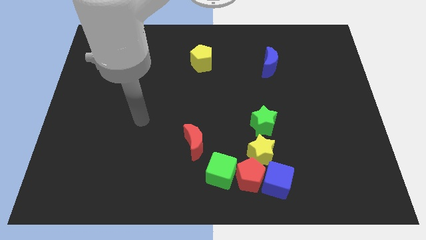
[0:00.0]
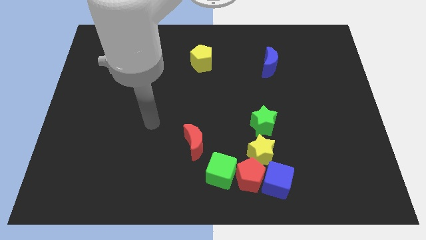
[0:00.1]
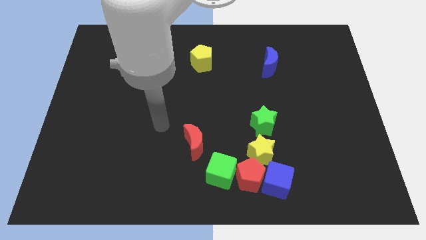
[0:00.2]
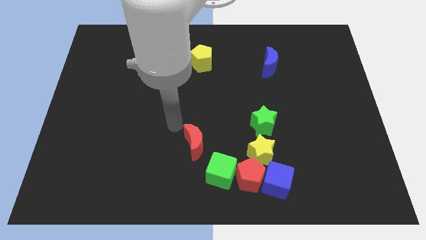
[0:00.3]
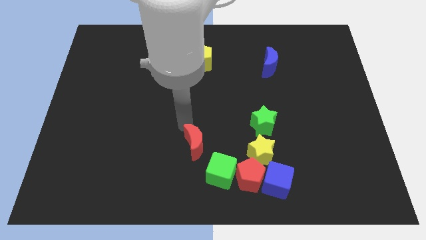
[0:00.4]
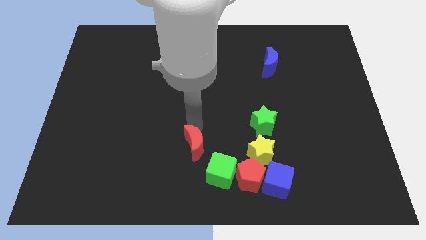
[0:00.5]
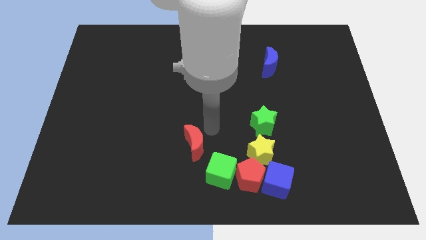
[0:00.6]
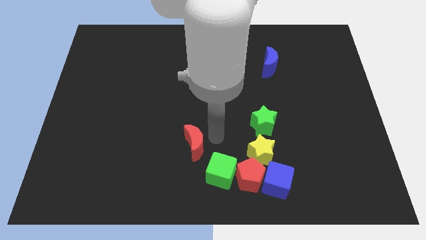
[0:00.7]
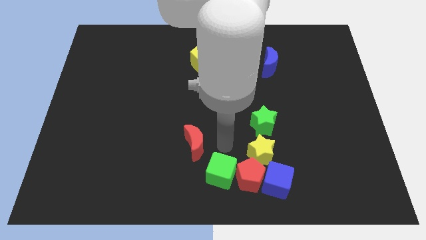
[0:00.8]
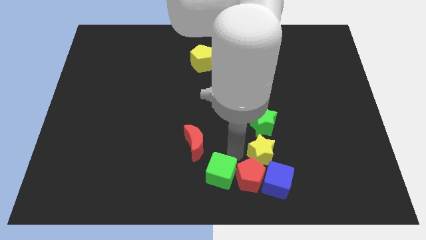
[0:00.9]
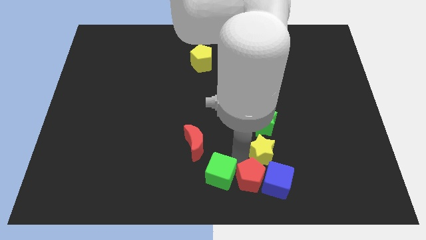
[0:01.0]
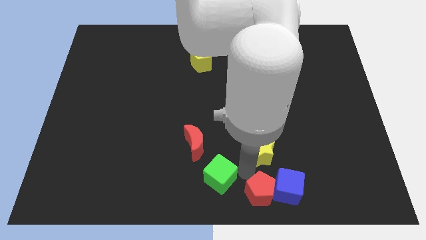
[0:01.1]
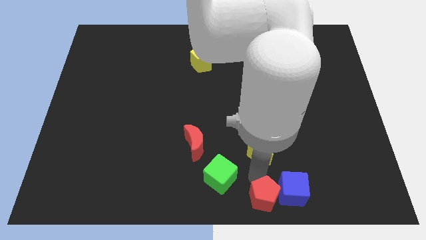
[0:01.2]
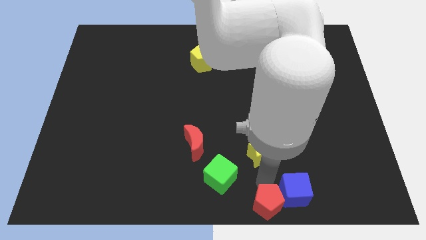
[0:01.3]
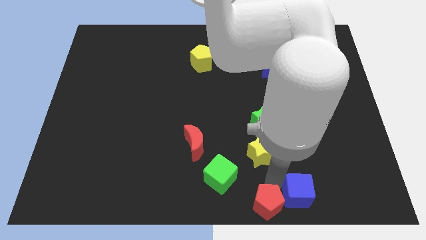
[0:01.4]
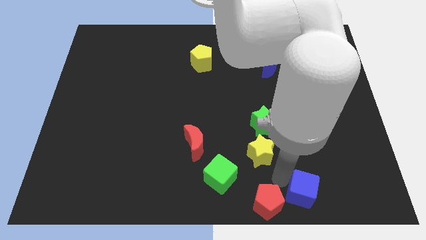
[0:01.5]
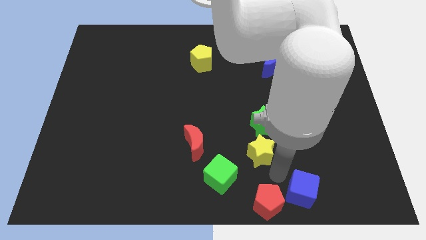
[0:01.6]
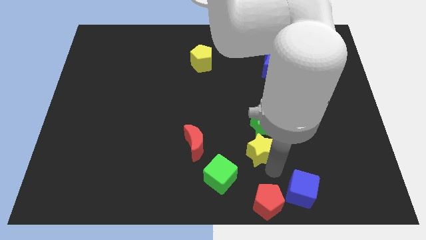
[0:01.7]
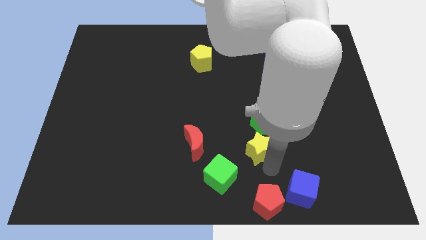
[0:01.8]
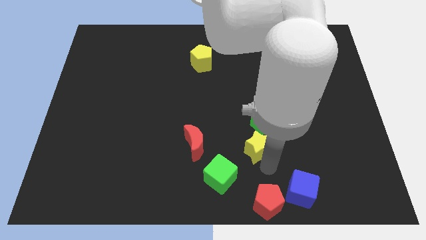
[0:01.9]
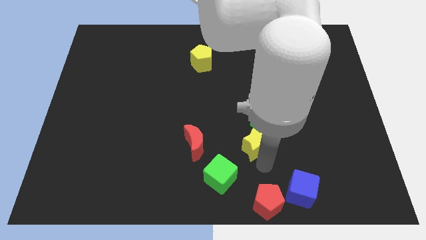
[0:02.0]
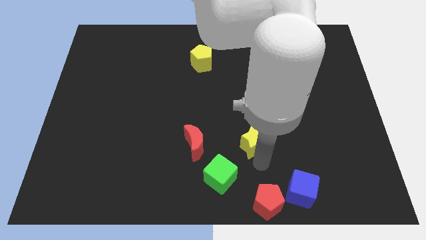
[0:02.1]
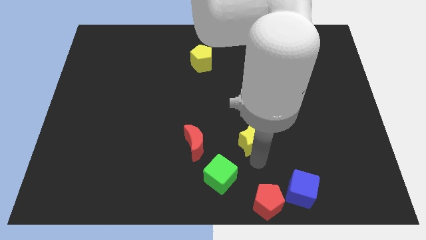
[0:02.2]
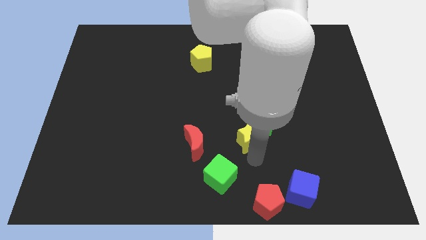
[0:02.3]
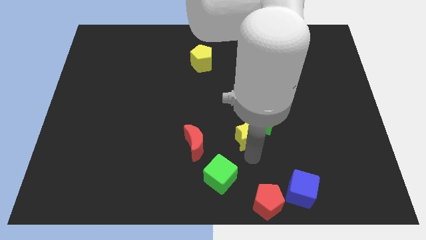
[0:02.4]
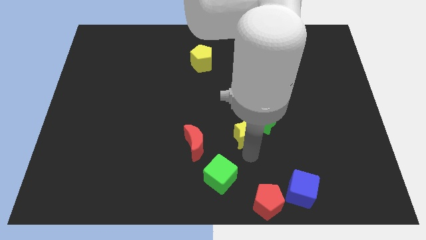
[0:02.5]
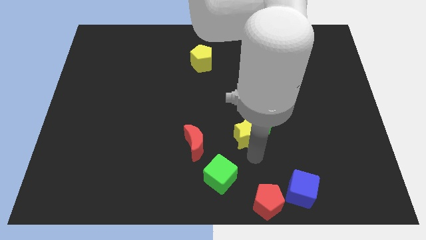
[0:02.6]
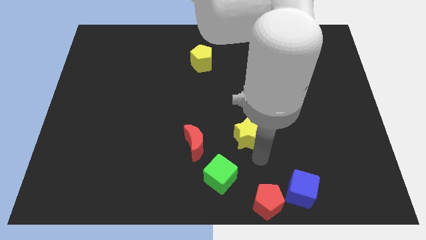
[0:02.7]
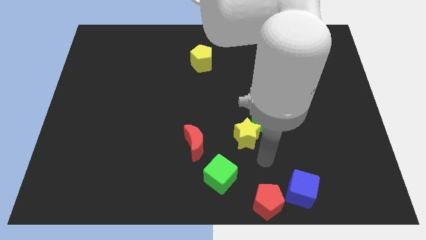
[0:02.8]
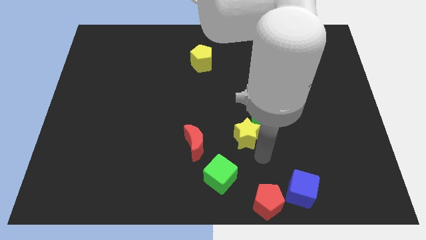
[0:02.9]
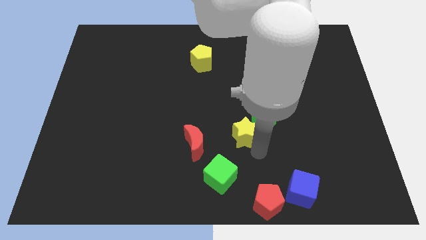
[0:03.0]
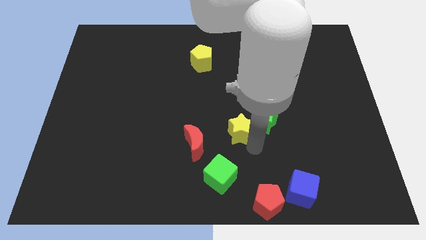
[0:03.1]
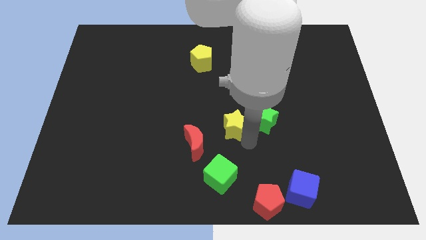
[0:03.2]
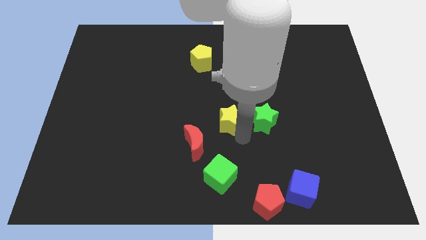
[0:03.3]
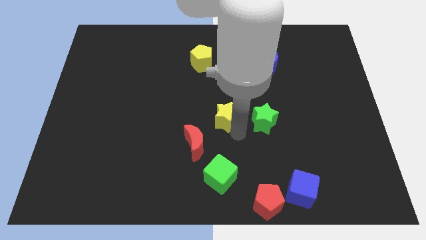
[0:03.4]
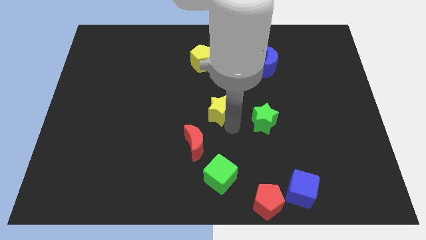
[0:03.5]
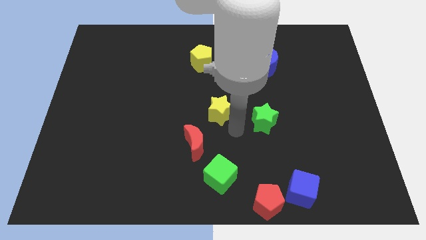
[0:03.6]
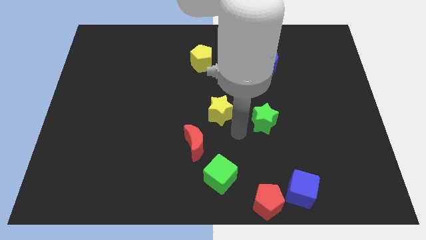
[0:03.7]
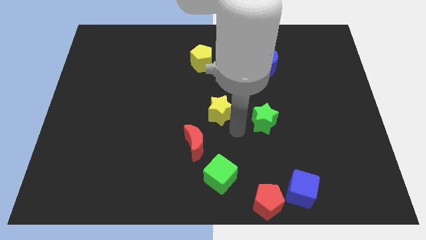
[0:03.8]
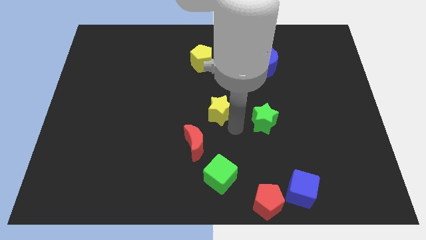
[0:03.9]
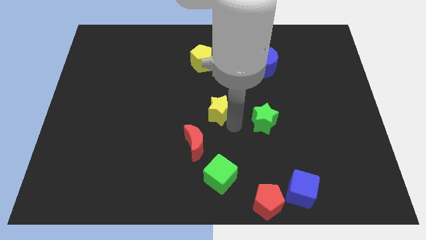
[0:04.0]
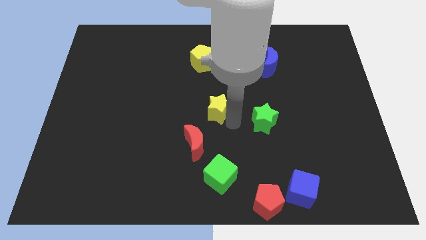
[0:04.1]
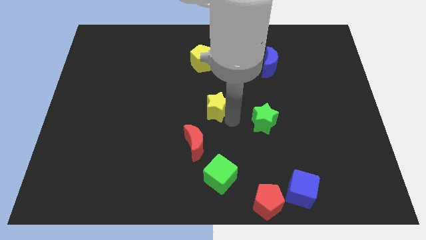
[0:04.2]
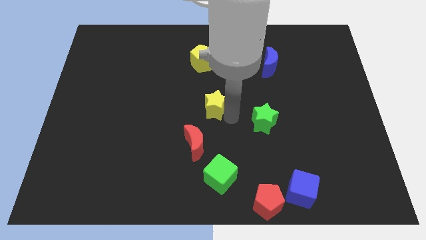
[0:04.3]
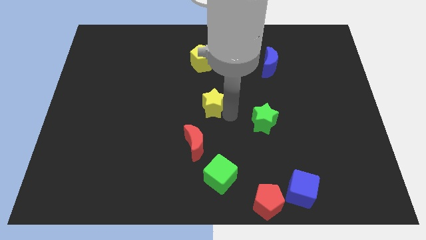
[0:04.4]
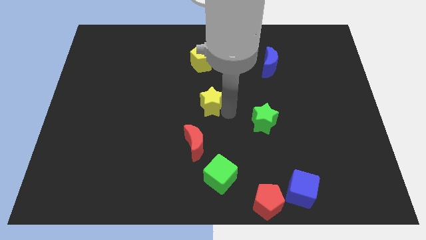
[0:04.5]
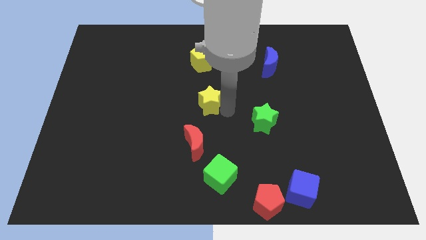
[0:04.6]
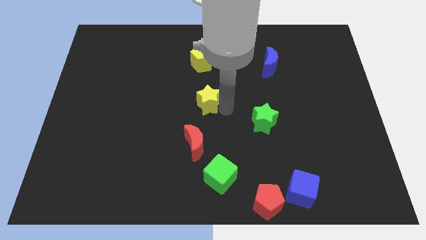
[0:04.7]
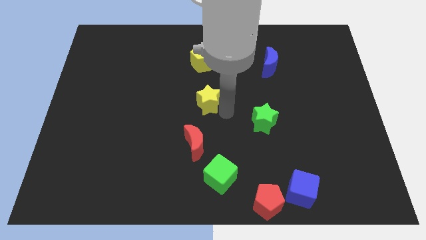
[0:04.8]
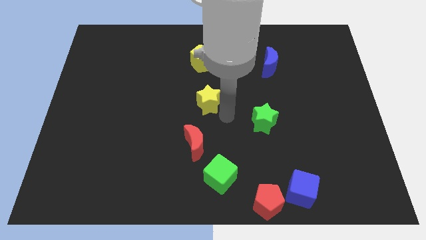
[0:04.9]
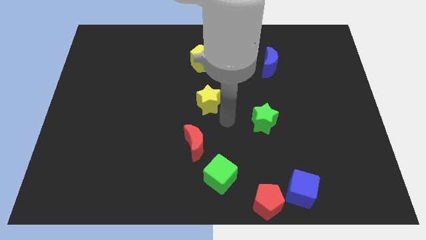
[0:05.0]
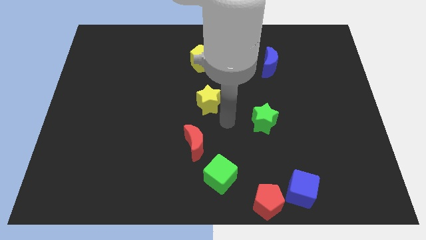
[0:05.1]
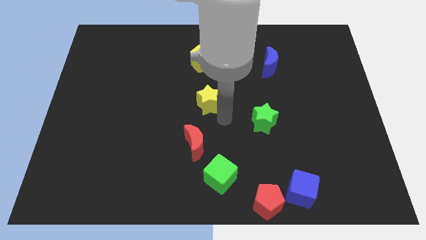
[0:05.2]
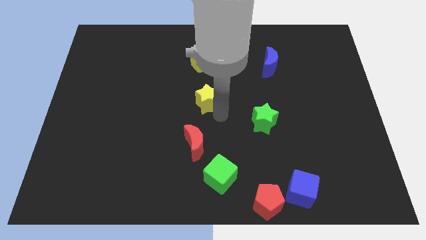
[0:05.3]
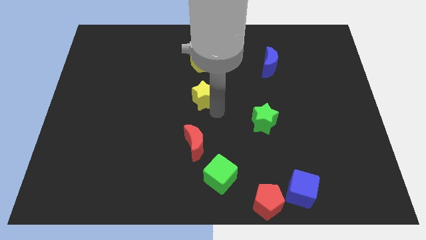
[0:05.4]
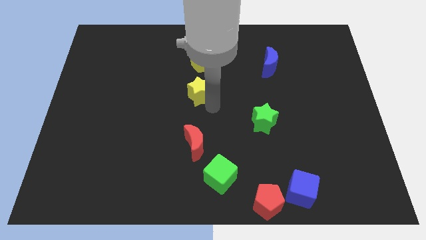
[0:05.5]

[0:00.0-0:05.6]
push the yellow star upwards and then to the left

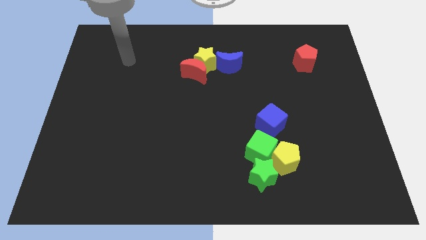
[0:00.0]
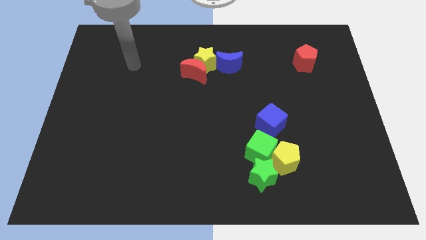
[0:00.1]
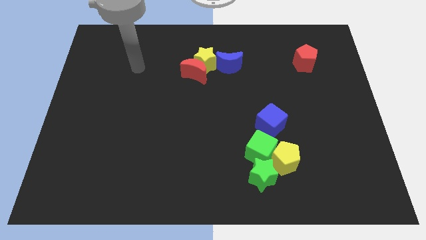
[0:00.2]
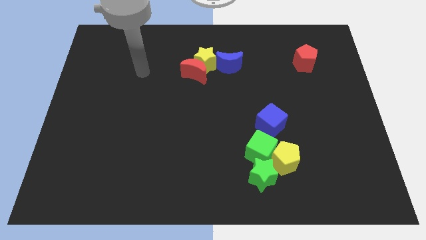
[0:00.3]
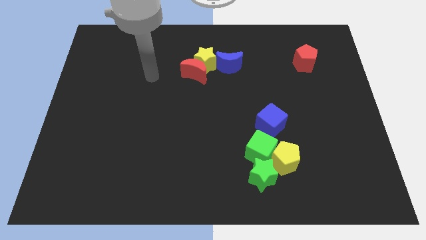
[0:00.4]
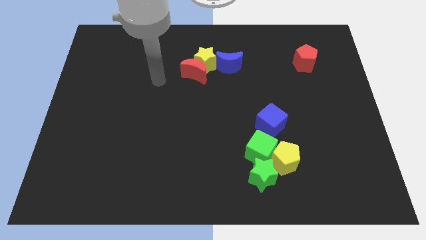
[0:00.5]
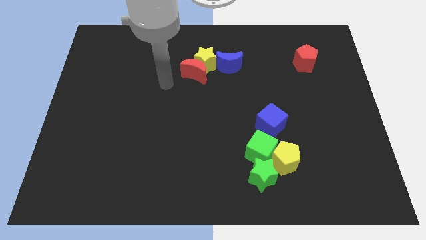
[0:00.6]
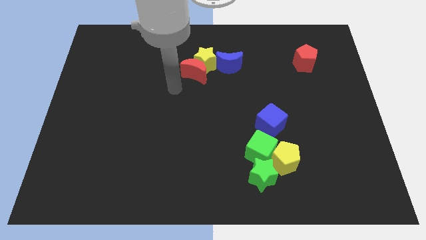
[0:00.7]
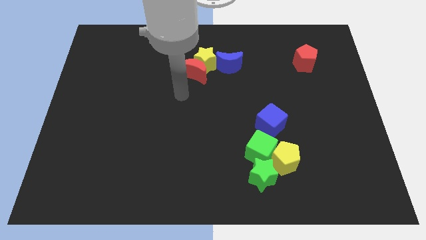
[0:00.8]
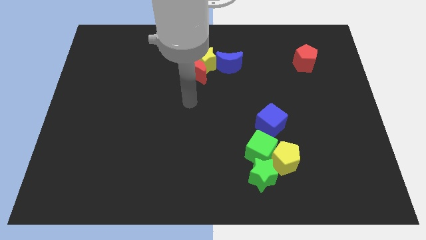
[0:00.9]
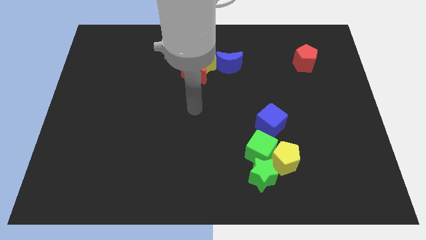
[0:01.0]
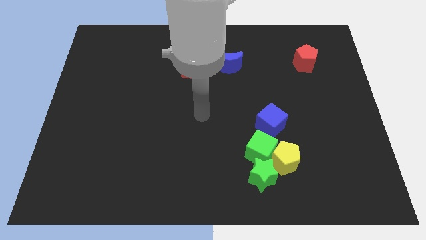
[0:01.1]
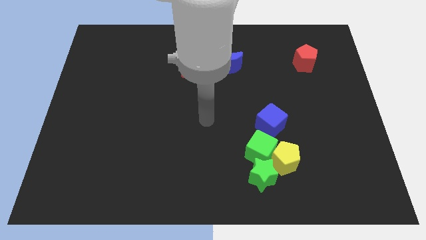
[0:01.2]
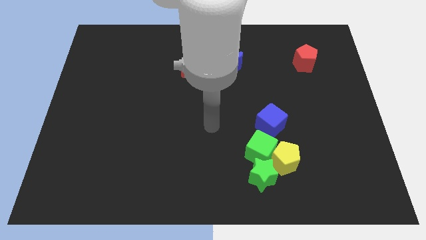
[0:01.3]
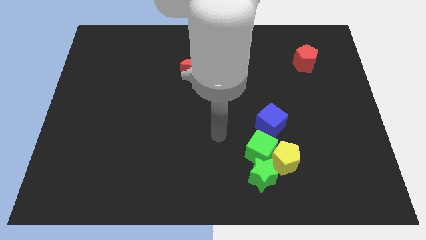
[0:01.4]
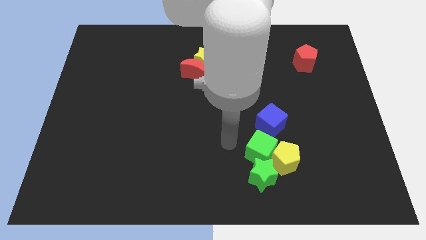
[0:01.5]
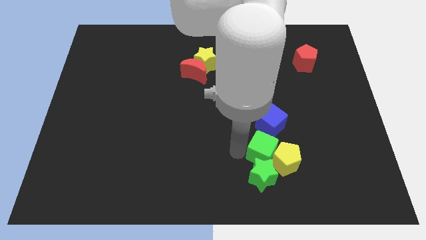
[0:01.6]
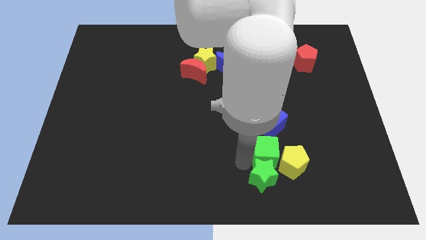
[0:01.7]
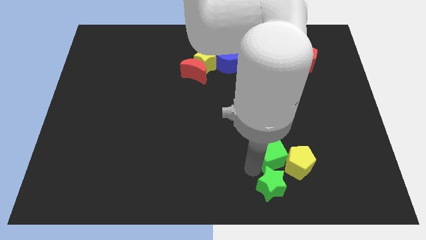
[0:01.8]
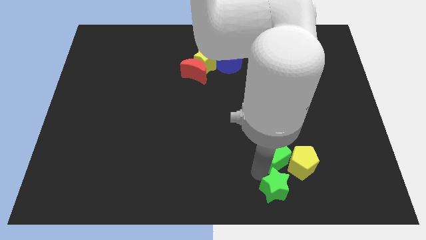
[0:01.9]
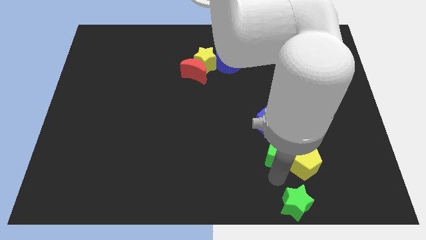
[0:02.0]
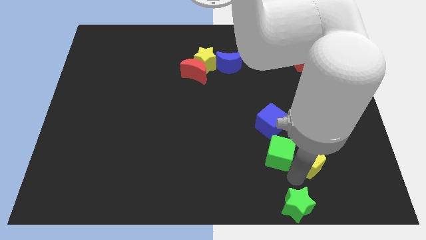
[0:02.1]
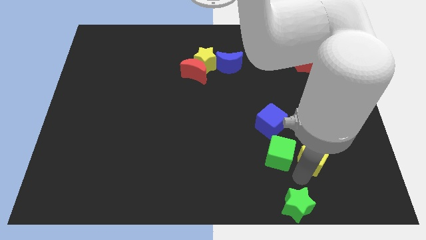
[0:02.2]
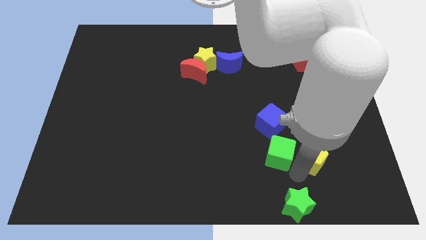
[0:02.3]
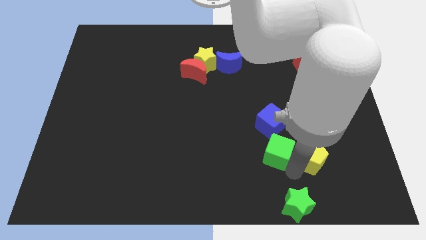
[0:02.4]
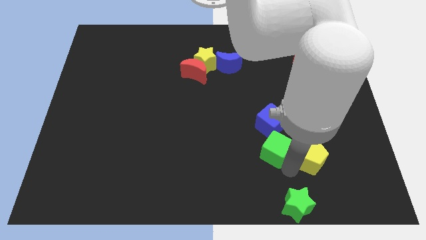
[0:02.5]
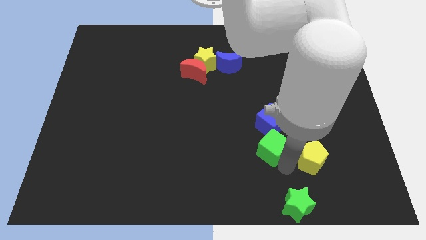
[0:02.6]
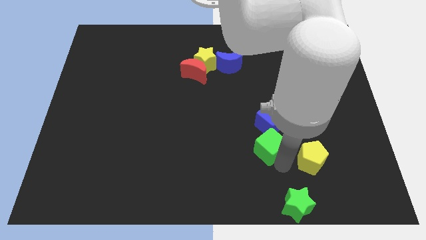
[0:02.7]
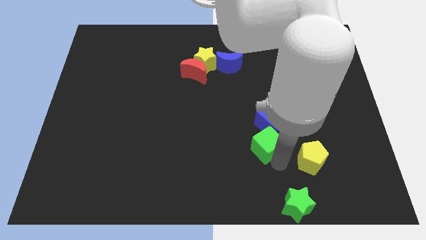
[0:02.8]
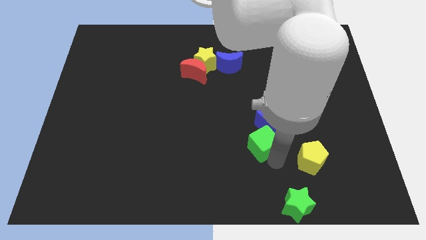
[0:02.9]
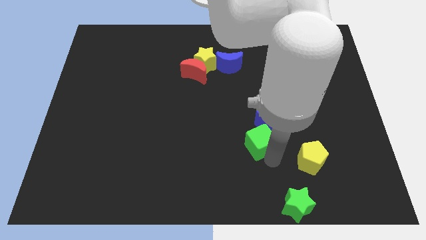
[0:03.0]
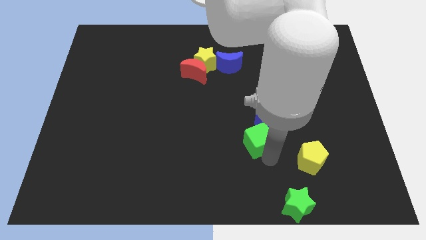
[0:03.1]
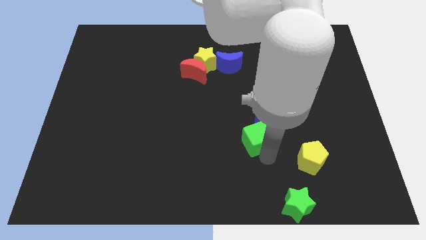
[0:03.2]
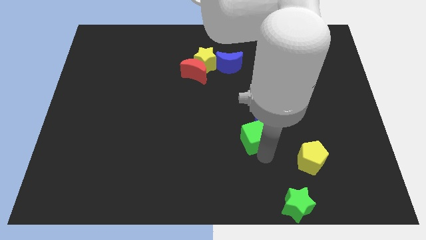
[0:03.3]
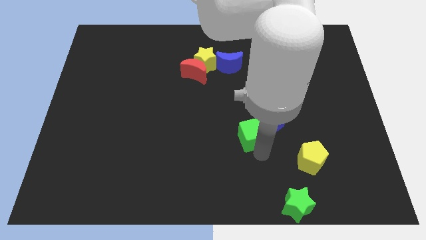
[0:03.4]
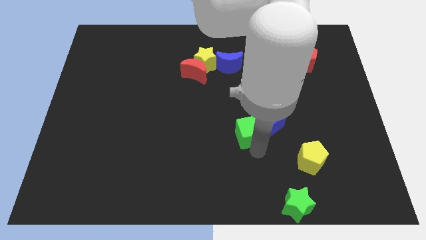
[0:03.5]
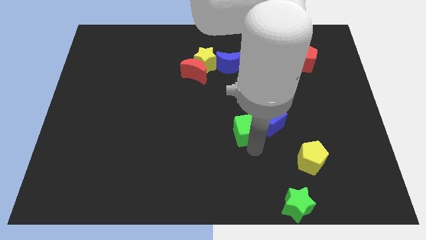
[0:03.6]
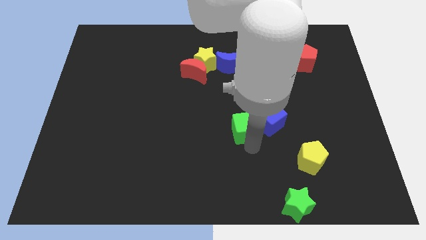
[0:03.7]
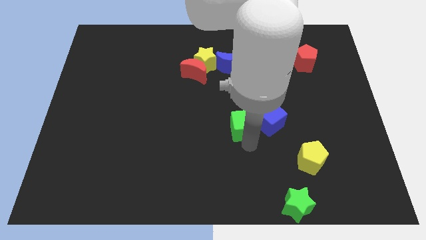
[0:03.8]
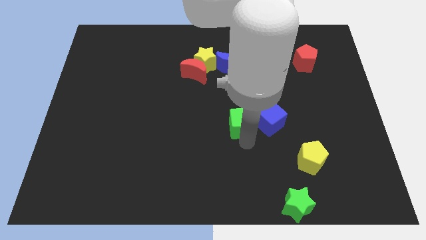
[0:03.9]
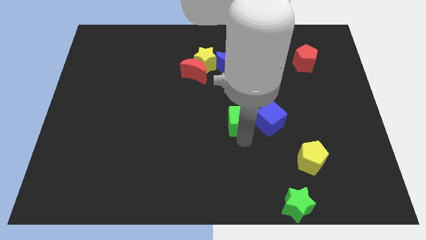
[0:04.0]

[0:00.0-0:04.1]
slide the green cube a little bit upwards
